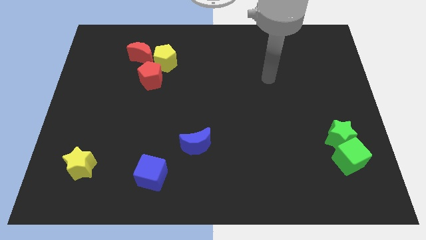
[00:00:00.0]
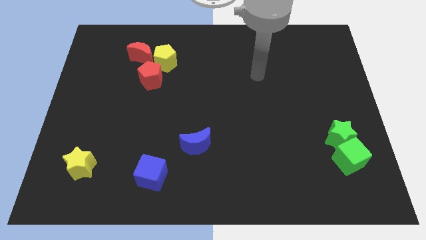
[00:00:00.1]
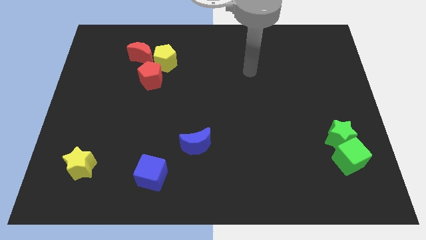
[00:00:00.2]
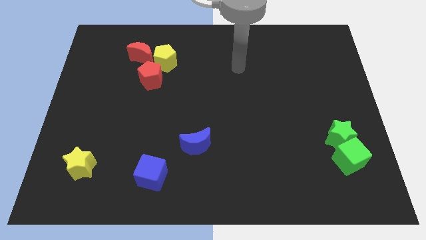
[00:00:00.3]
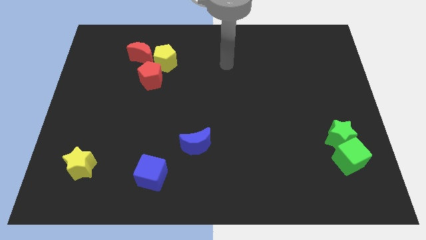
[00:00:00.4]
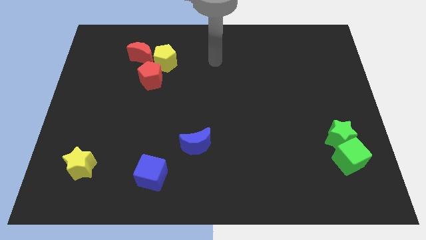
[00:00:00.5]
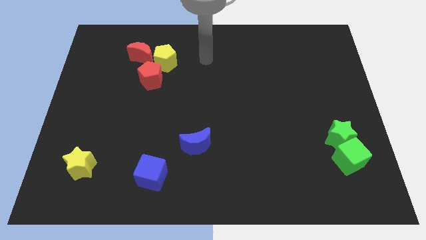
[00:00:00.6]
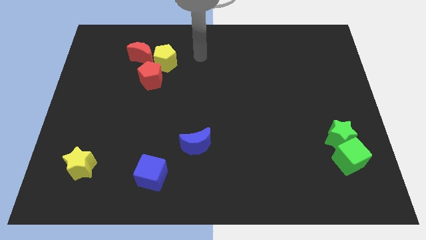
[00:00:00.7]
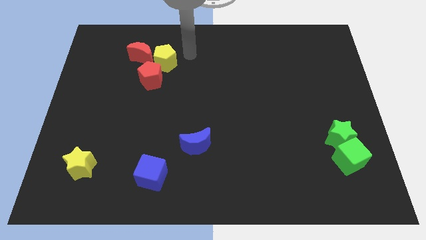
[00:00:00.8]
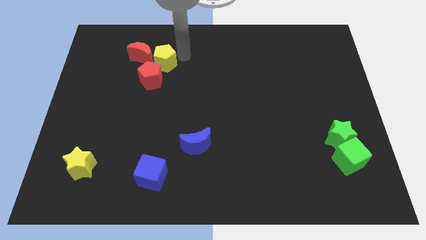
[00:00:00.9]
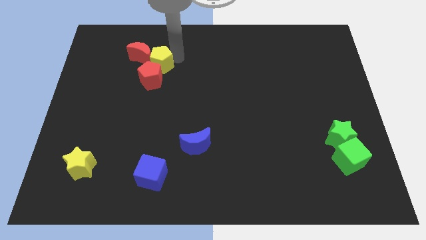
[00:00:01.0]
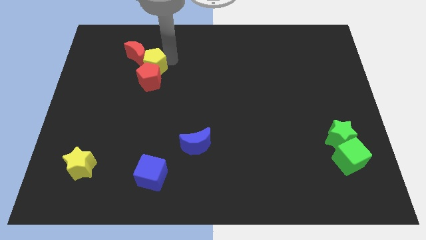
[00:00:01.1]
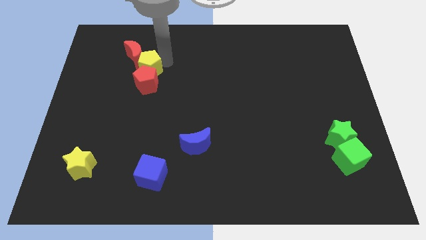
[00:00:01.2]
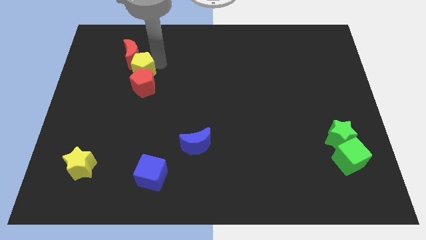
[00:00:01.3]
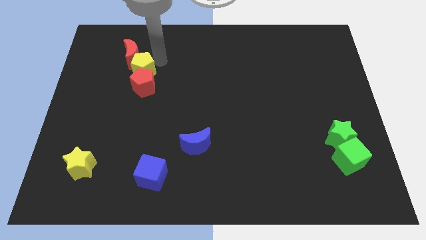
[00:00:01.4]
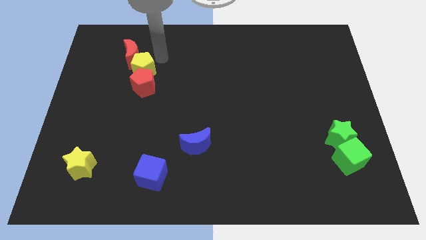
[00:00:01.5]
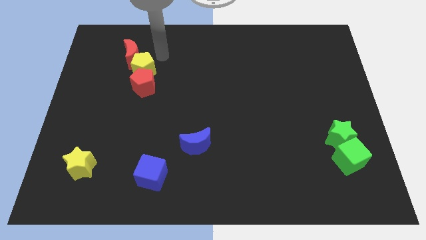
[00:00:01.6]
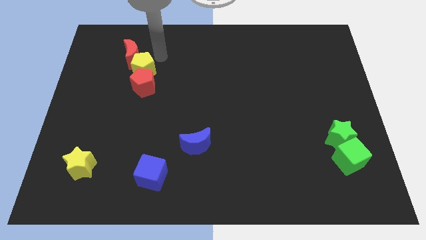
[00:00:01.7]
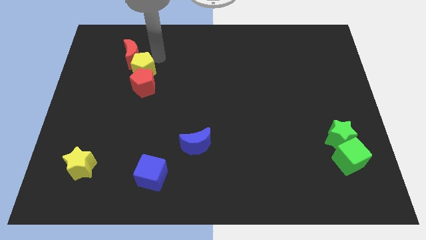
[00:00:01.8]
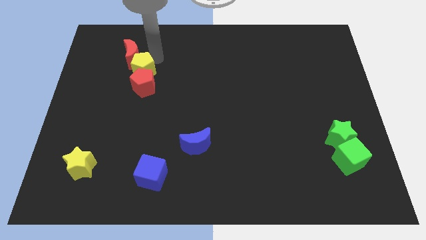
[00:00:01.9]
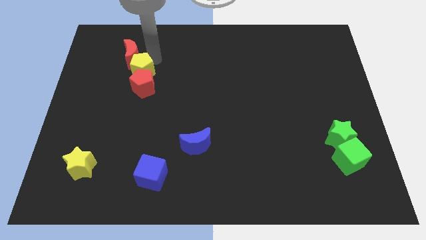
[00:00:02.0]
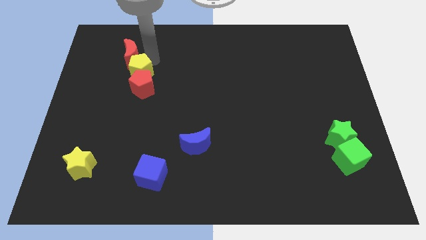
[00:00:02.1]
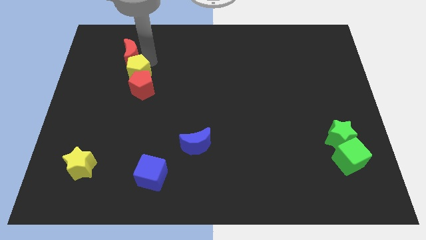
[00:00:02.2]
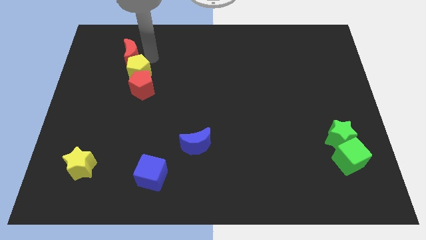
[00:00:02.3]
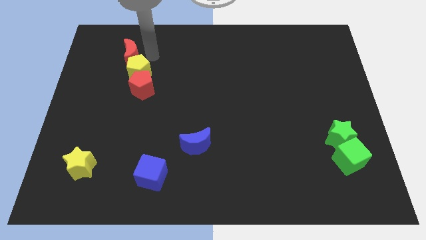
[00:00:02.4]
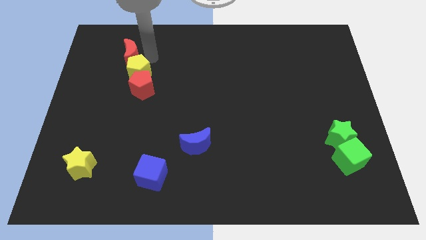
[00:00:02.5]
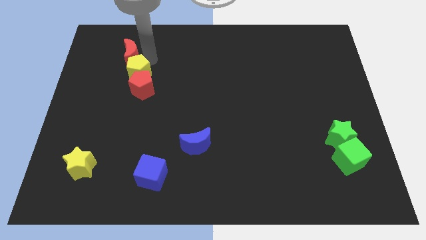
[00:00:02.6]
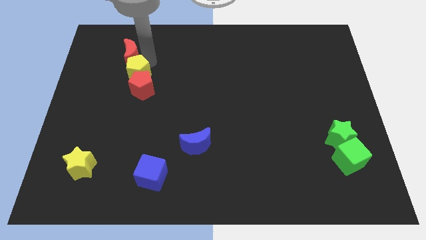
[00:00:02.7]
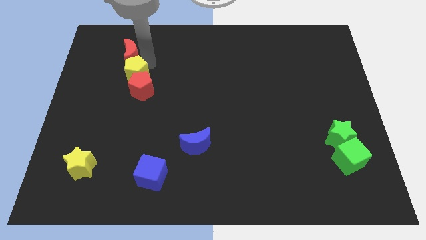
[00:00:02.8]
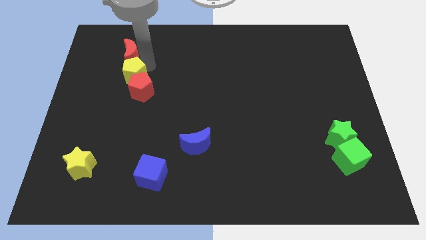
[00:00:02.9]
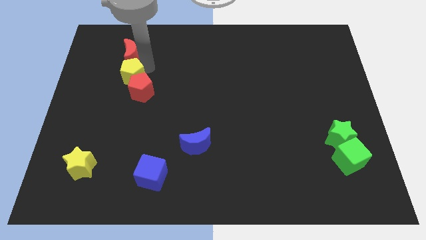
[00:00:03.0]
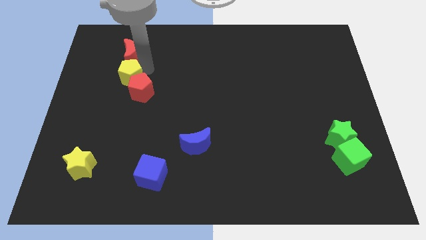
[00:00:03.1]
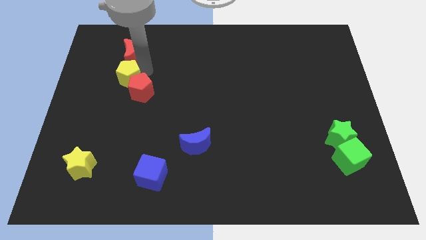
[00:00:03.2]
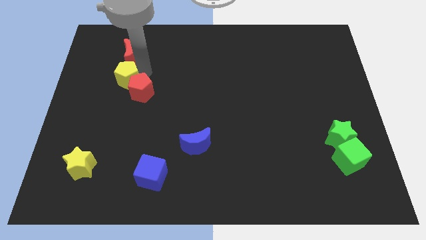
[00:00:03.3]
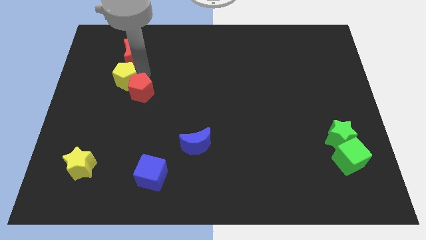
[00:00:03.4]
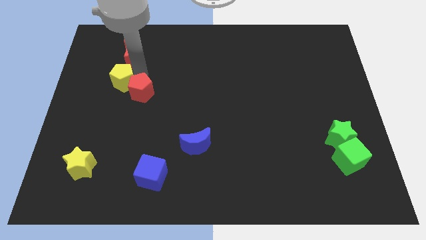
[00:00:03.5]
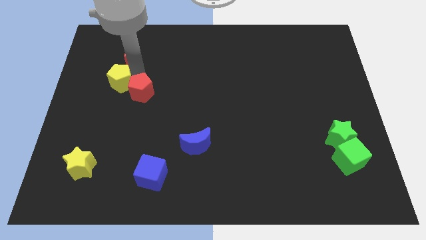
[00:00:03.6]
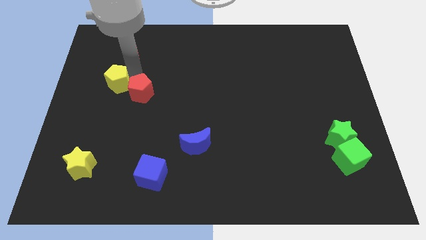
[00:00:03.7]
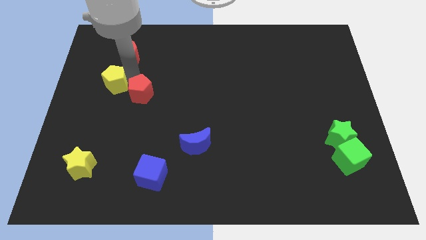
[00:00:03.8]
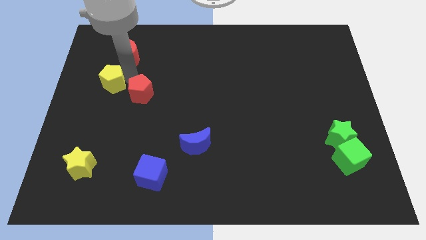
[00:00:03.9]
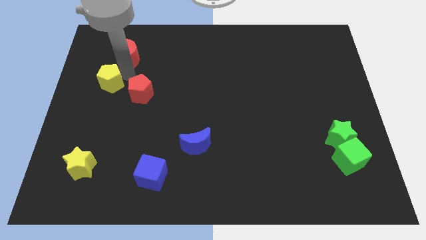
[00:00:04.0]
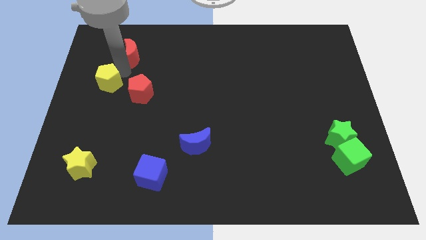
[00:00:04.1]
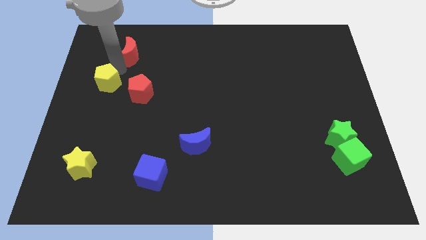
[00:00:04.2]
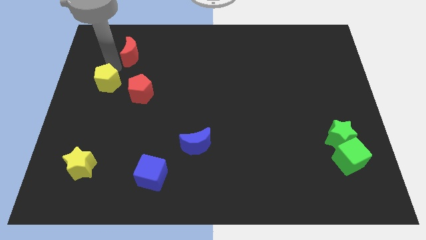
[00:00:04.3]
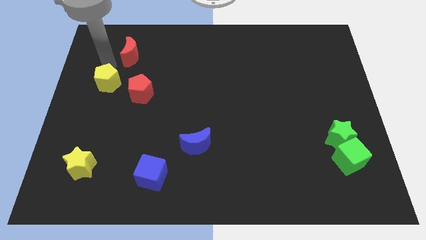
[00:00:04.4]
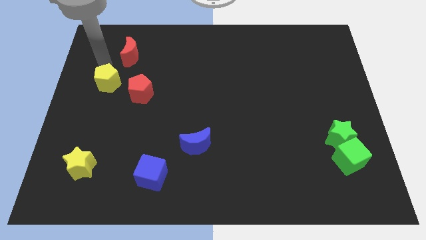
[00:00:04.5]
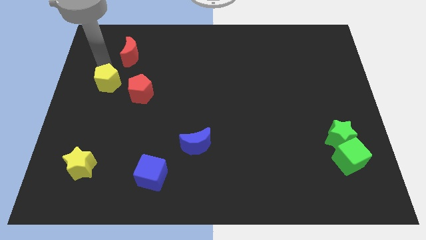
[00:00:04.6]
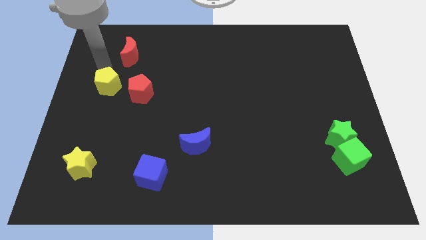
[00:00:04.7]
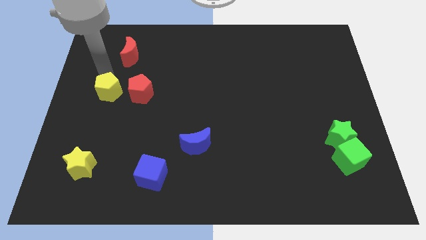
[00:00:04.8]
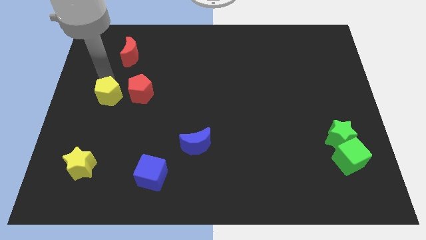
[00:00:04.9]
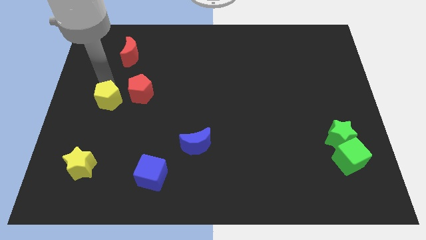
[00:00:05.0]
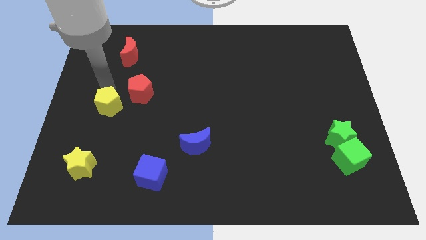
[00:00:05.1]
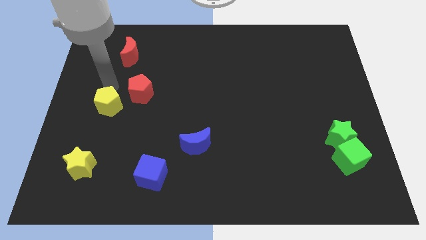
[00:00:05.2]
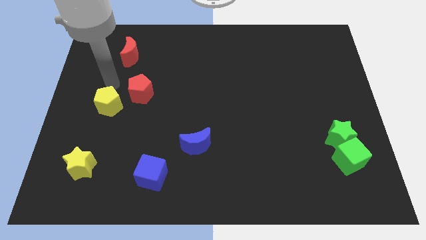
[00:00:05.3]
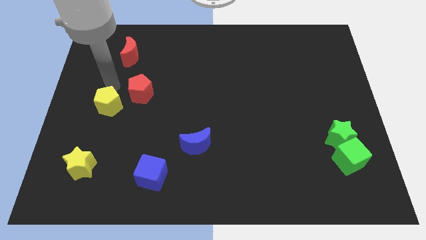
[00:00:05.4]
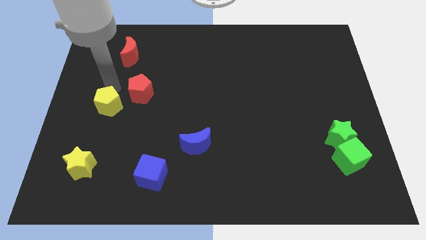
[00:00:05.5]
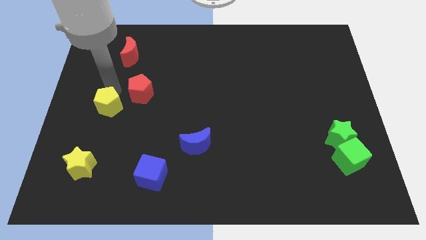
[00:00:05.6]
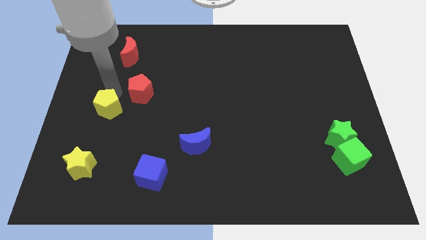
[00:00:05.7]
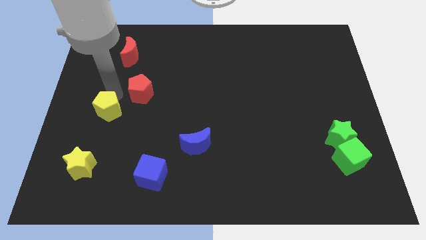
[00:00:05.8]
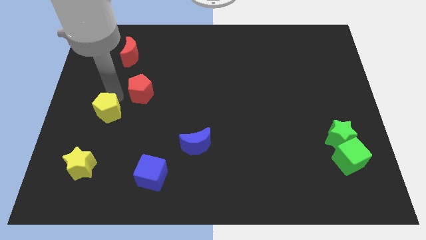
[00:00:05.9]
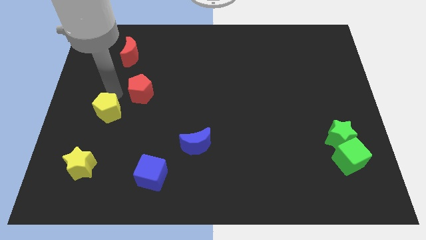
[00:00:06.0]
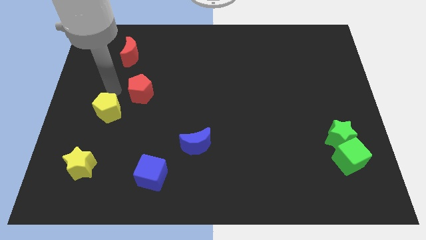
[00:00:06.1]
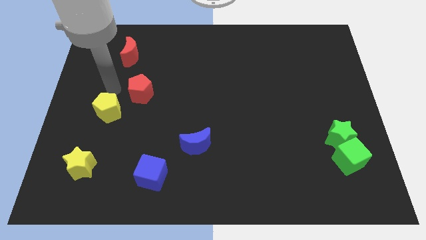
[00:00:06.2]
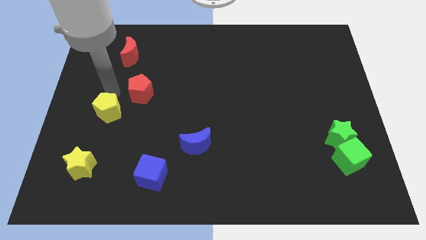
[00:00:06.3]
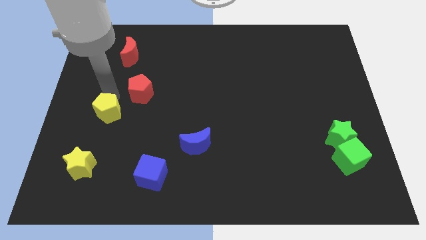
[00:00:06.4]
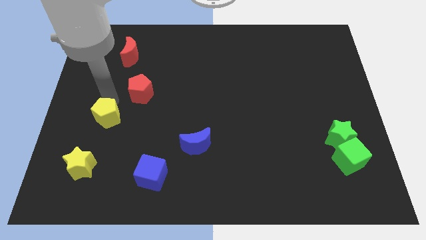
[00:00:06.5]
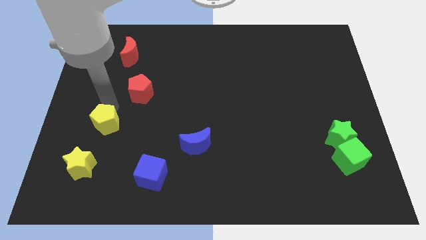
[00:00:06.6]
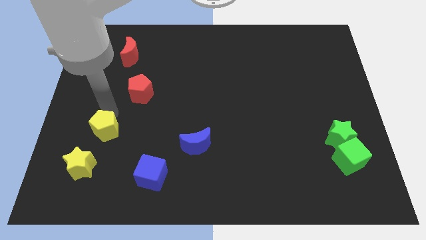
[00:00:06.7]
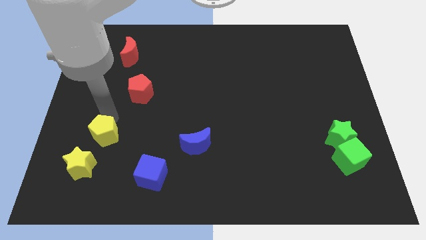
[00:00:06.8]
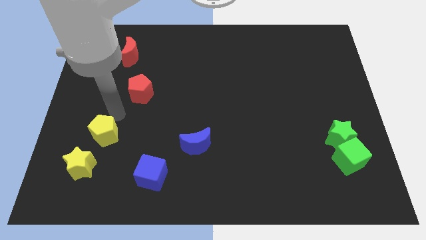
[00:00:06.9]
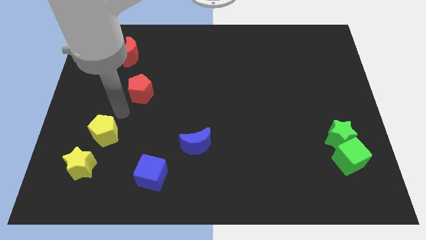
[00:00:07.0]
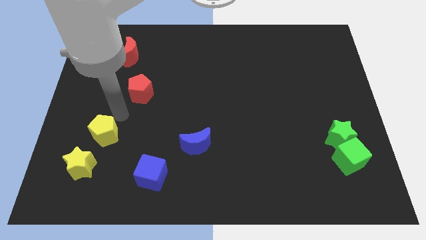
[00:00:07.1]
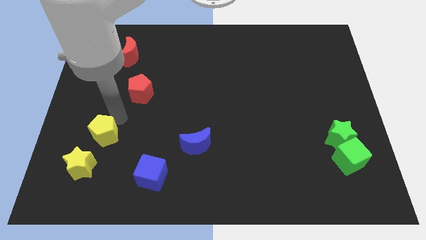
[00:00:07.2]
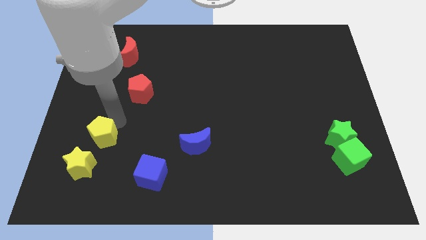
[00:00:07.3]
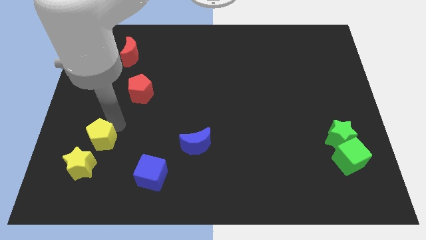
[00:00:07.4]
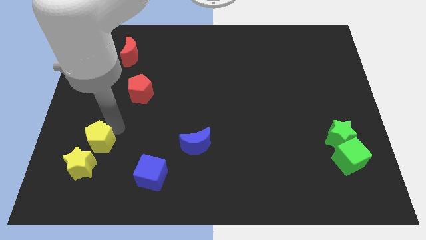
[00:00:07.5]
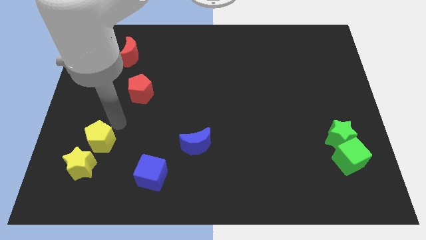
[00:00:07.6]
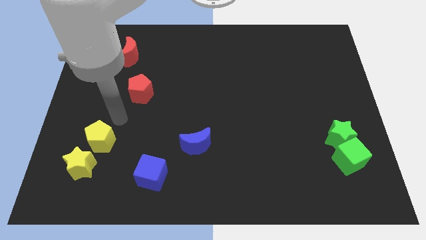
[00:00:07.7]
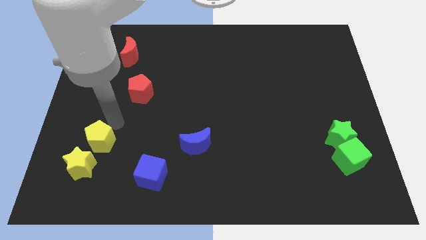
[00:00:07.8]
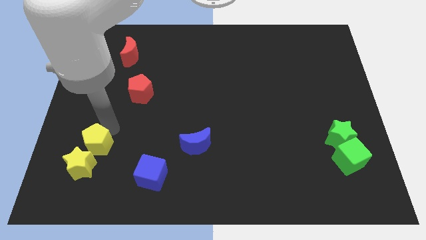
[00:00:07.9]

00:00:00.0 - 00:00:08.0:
push the yellow pentagon towards the yellow star
